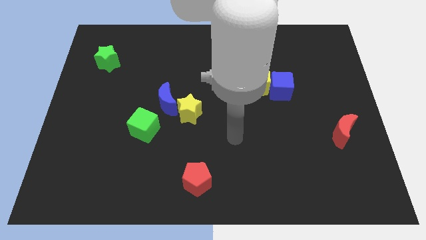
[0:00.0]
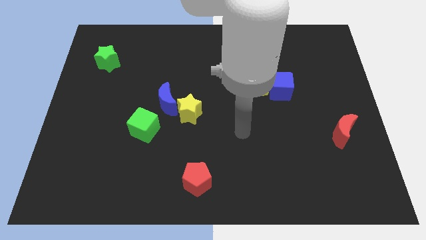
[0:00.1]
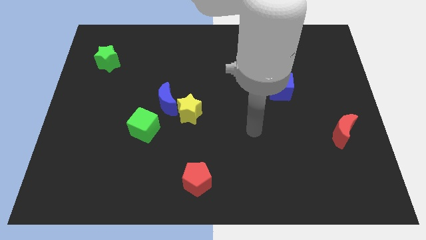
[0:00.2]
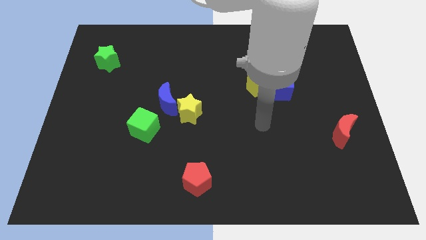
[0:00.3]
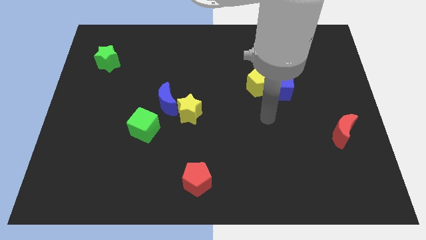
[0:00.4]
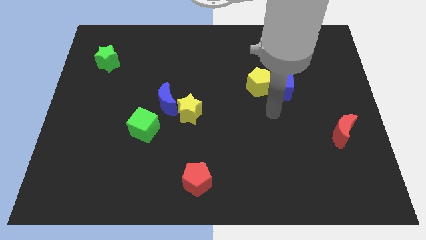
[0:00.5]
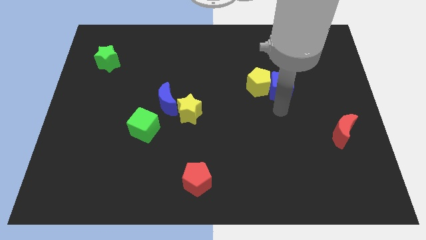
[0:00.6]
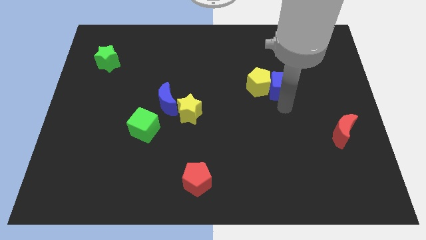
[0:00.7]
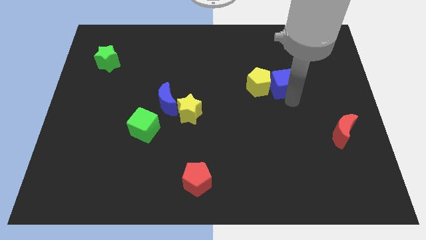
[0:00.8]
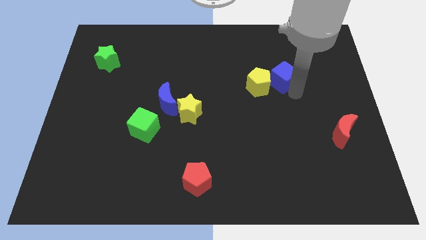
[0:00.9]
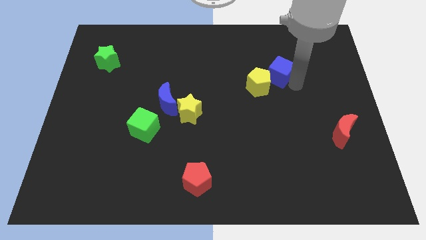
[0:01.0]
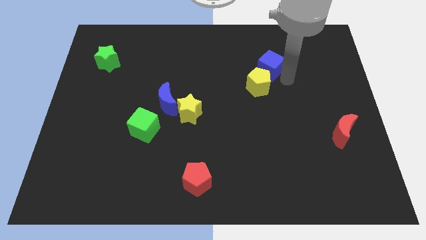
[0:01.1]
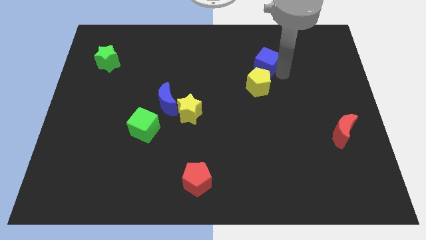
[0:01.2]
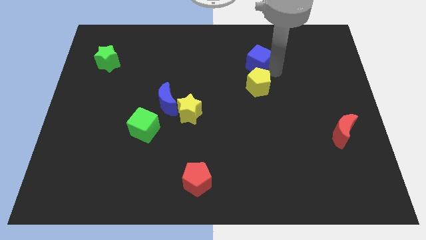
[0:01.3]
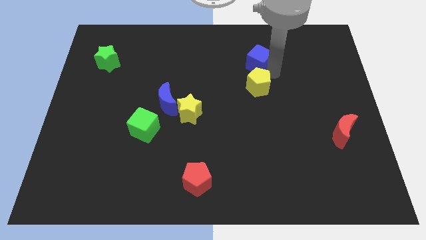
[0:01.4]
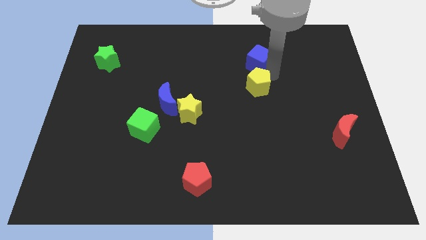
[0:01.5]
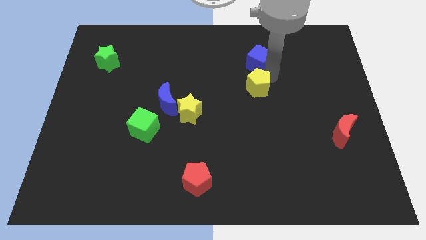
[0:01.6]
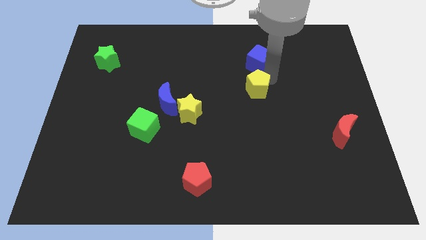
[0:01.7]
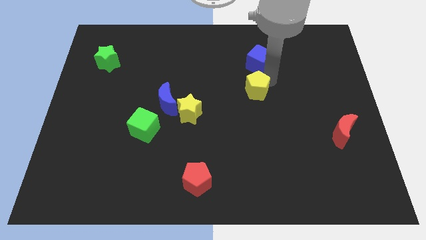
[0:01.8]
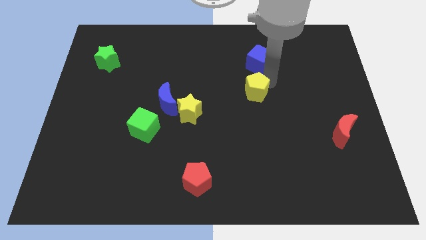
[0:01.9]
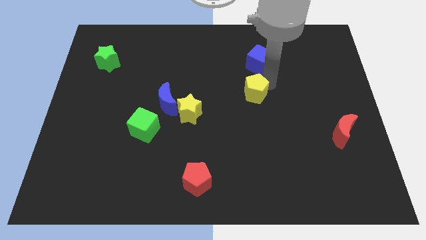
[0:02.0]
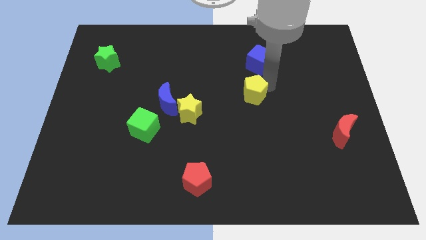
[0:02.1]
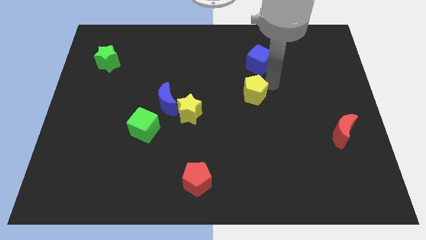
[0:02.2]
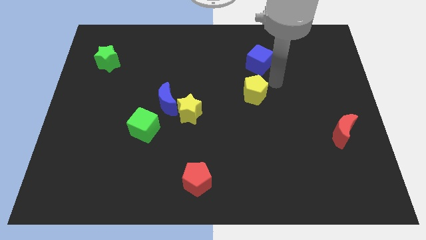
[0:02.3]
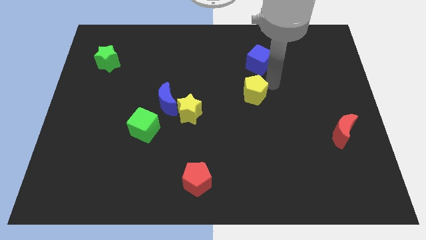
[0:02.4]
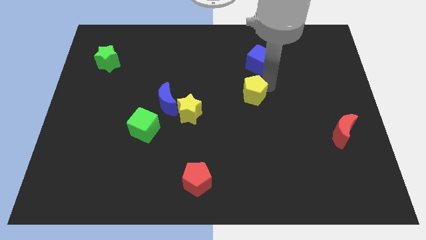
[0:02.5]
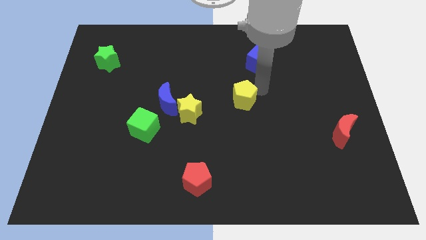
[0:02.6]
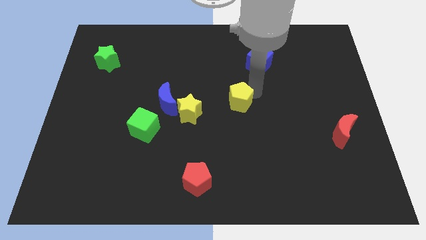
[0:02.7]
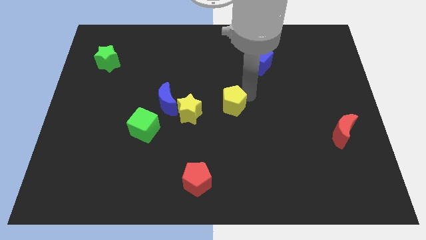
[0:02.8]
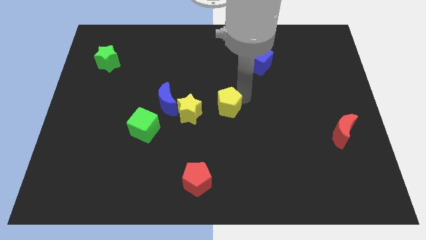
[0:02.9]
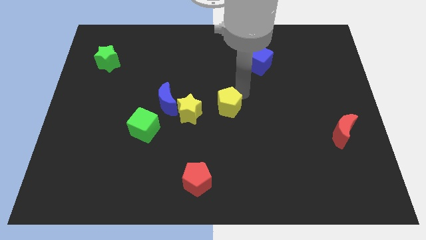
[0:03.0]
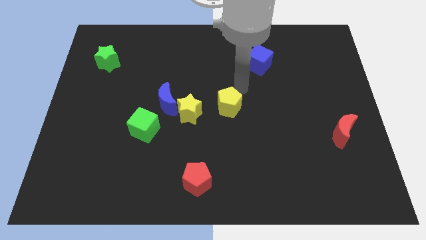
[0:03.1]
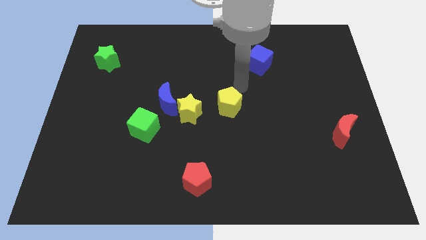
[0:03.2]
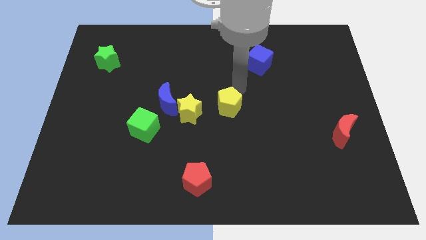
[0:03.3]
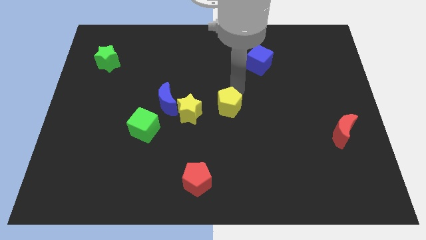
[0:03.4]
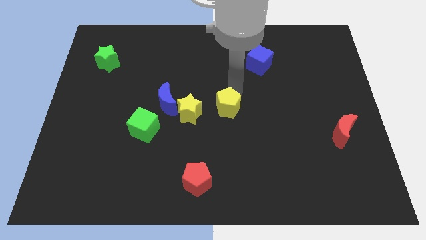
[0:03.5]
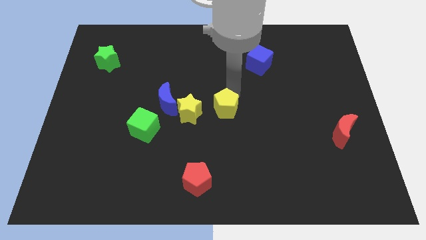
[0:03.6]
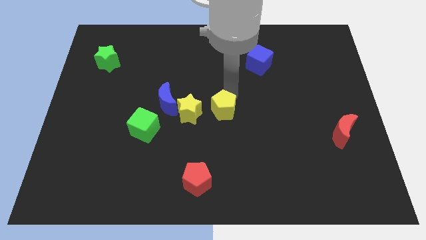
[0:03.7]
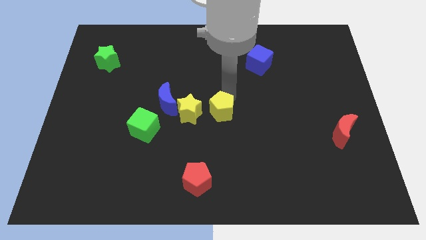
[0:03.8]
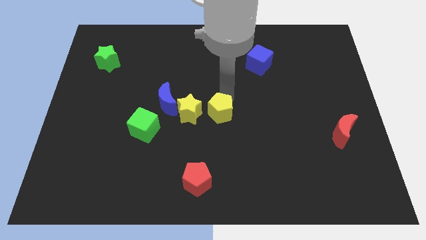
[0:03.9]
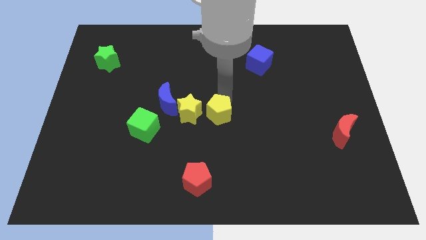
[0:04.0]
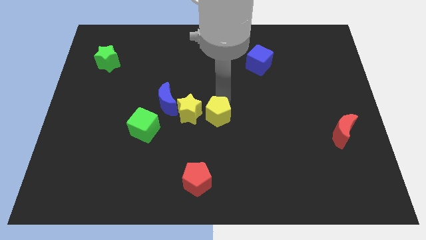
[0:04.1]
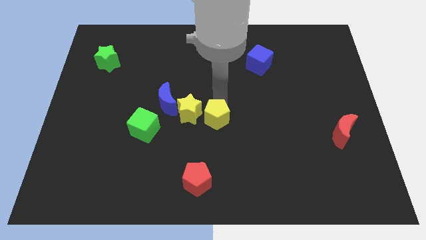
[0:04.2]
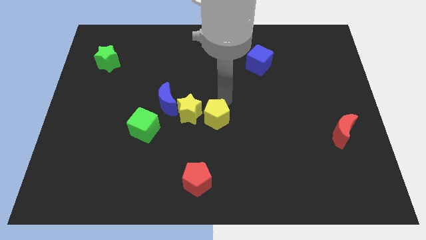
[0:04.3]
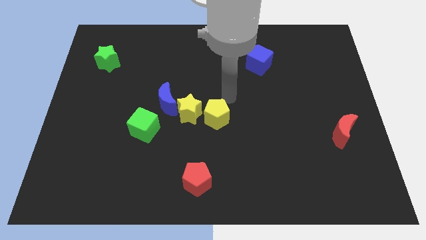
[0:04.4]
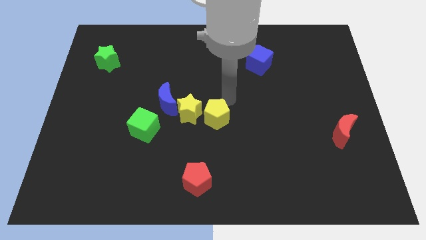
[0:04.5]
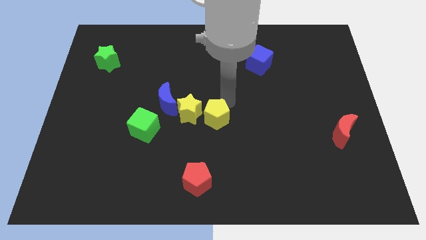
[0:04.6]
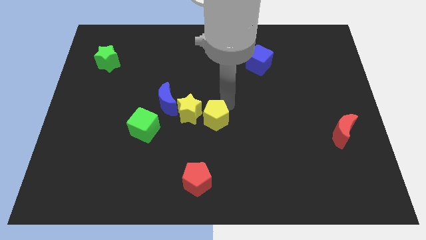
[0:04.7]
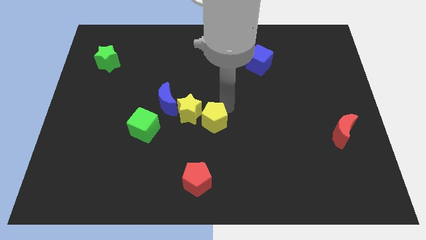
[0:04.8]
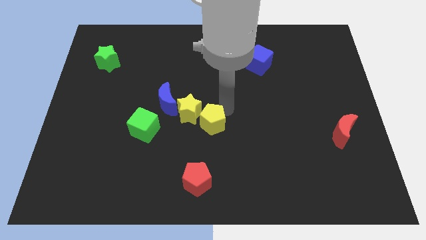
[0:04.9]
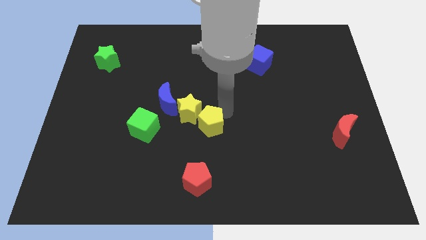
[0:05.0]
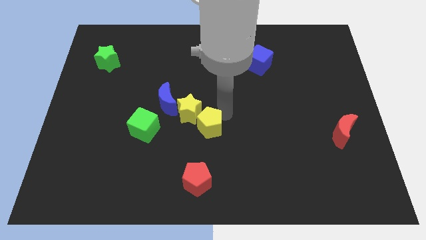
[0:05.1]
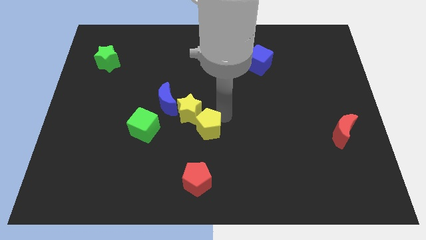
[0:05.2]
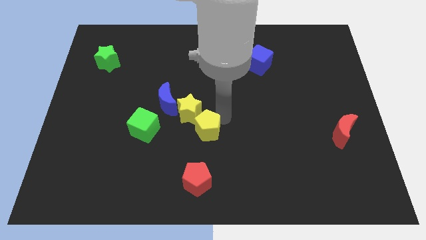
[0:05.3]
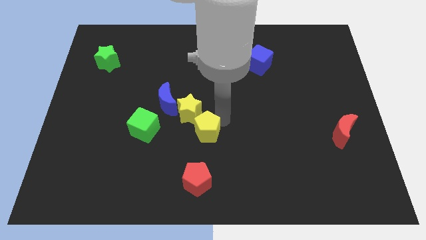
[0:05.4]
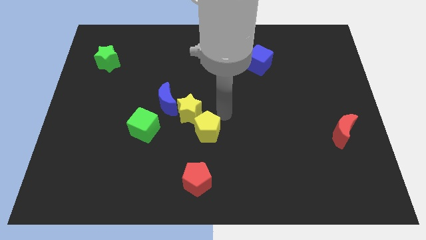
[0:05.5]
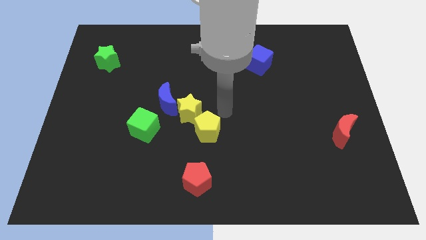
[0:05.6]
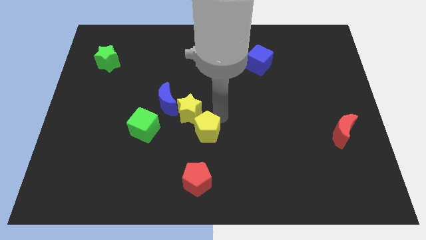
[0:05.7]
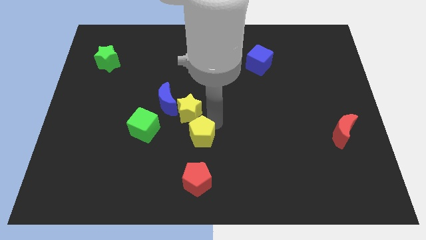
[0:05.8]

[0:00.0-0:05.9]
slide the yellow pentagon downwards and left diagonally

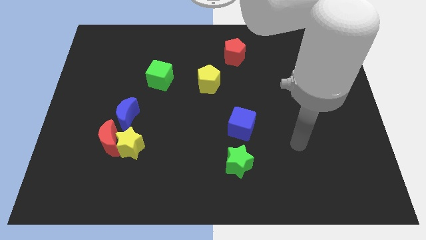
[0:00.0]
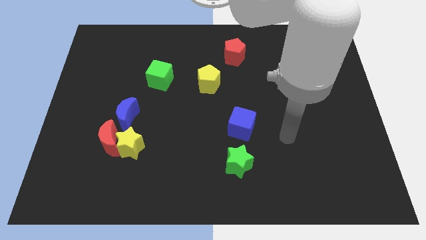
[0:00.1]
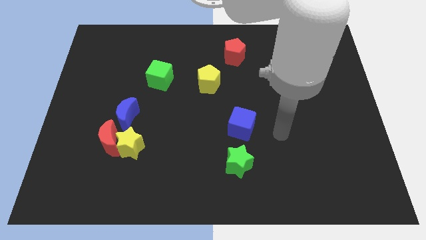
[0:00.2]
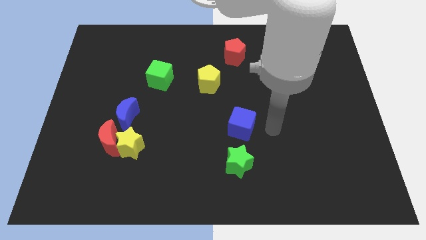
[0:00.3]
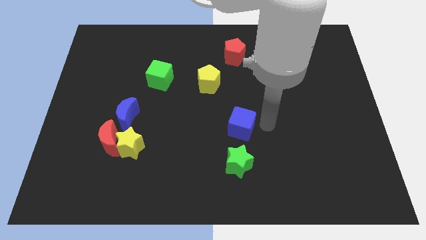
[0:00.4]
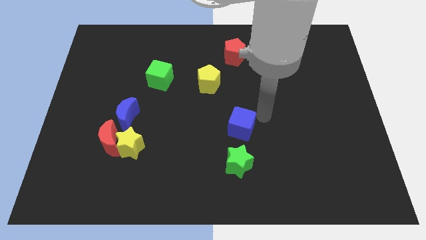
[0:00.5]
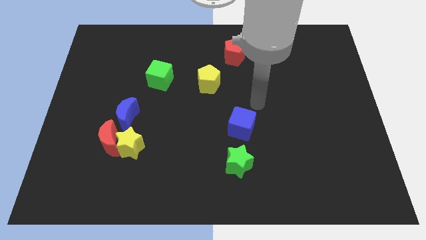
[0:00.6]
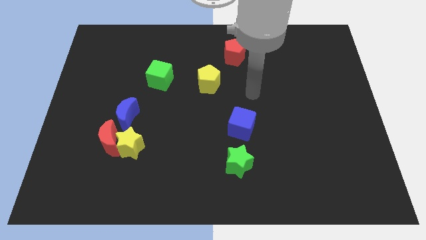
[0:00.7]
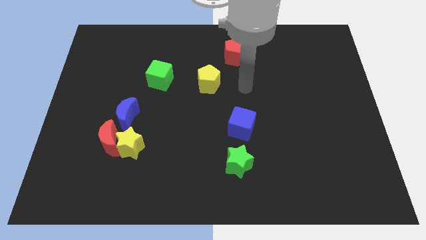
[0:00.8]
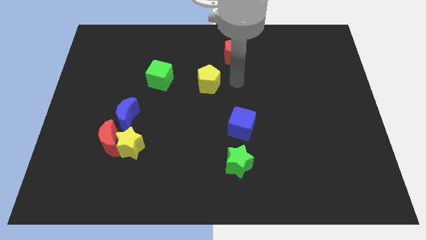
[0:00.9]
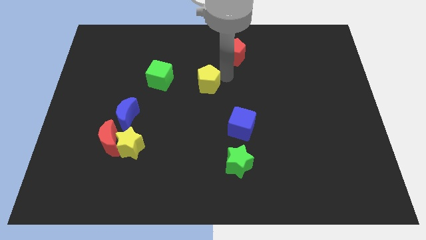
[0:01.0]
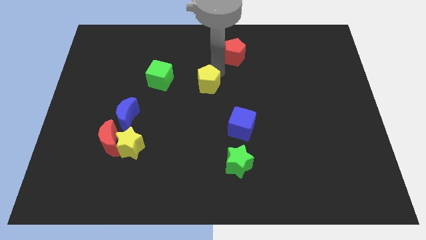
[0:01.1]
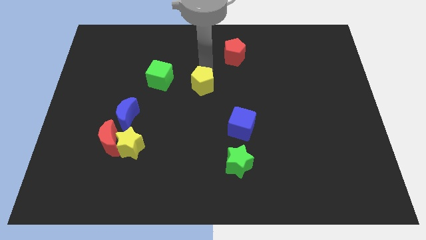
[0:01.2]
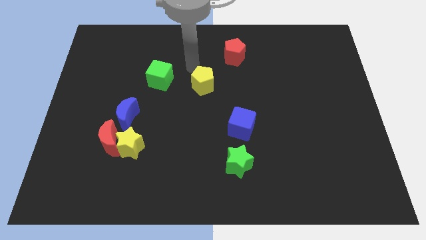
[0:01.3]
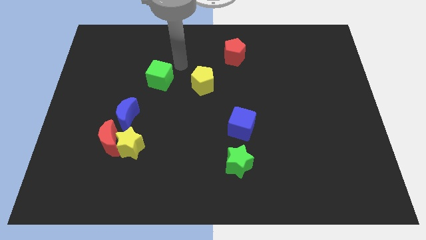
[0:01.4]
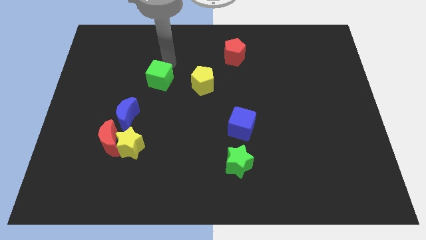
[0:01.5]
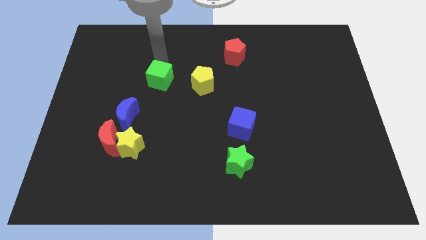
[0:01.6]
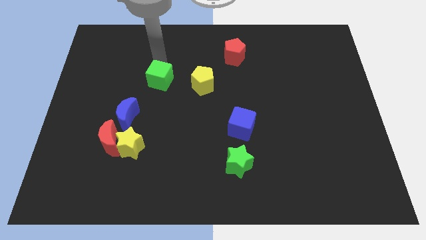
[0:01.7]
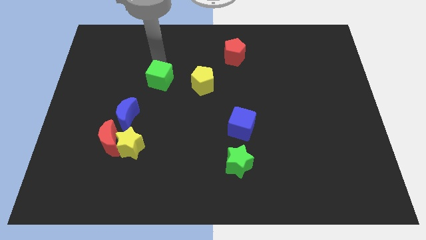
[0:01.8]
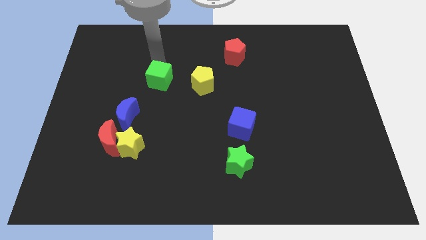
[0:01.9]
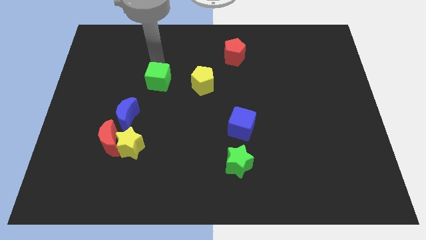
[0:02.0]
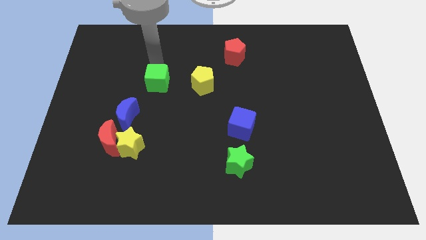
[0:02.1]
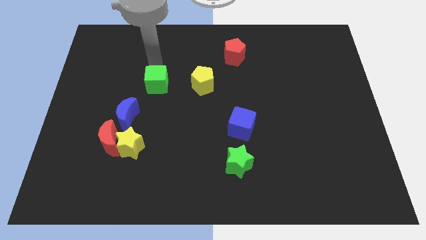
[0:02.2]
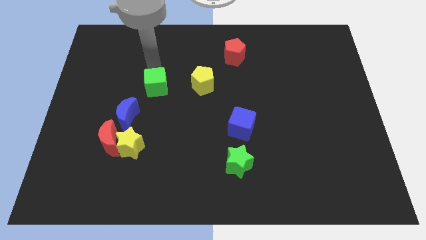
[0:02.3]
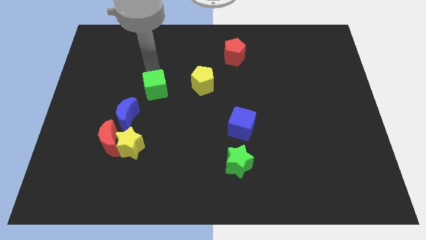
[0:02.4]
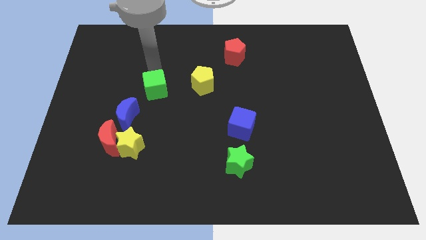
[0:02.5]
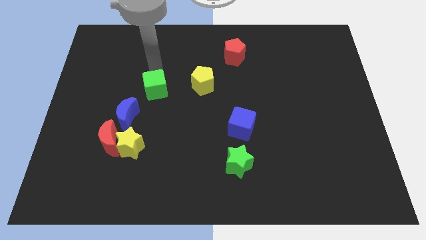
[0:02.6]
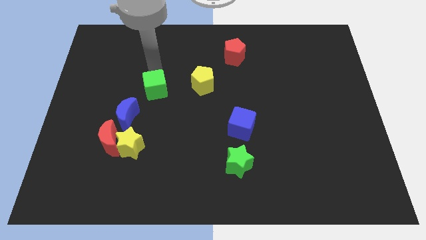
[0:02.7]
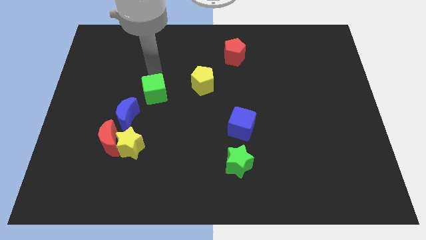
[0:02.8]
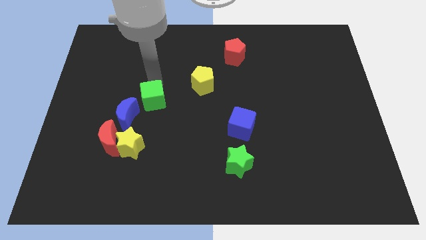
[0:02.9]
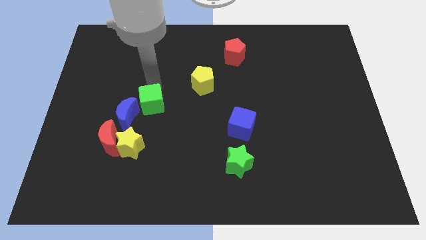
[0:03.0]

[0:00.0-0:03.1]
move the green cube downwards a little bit
